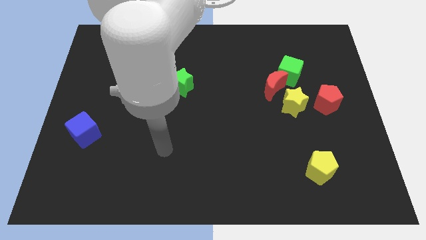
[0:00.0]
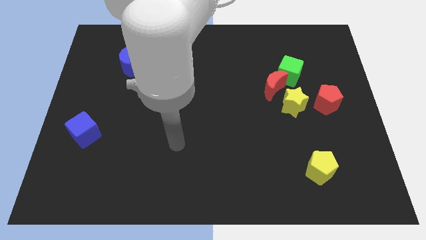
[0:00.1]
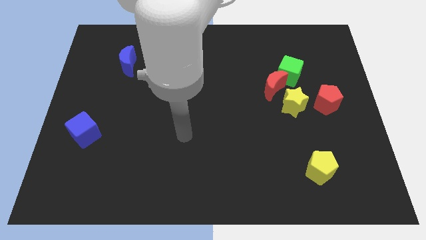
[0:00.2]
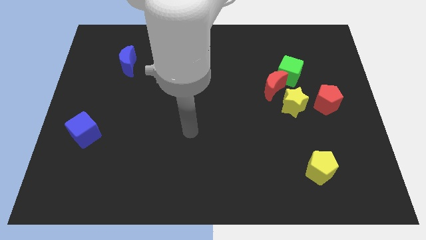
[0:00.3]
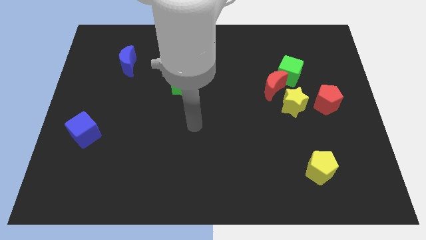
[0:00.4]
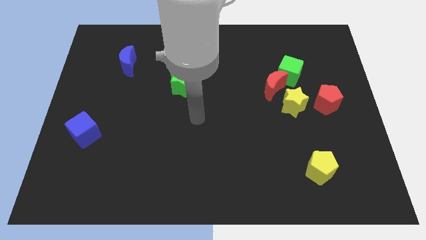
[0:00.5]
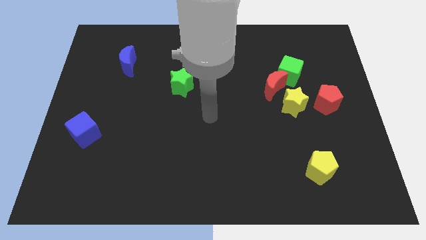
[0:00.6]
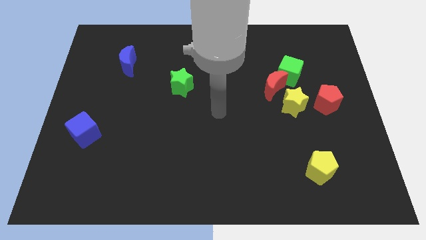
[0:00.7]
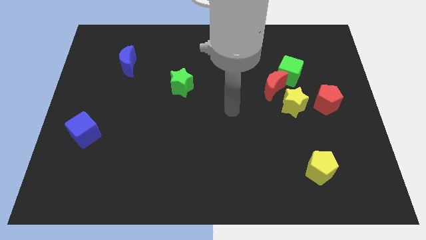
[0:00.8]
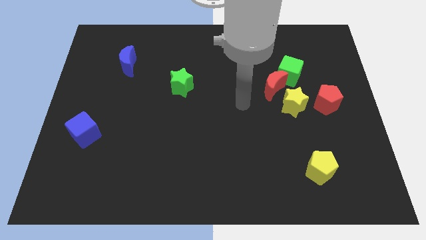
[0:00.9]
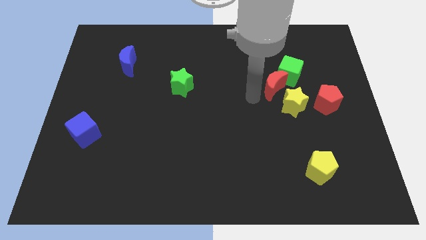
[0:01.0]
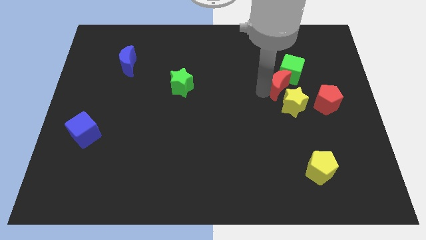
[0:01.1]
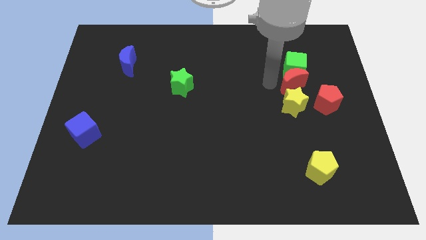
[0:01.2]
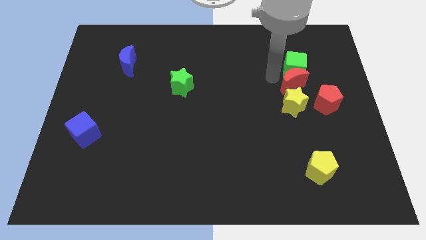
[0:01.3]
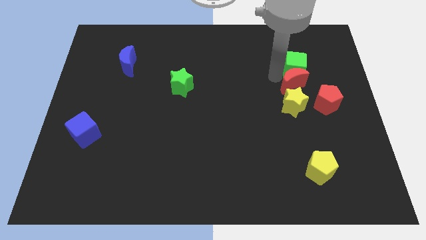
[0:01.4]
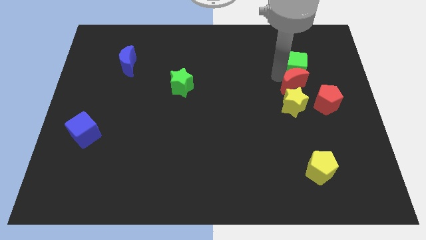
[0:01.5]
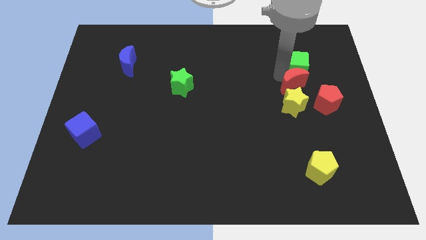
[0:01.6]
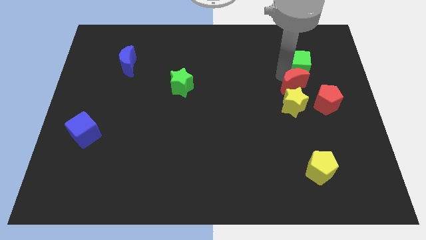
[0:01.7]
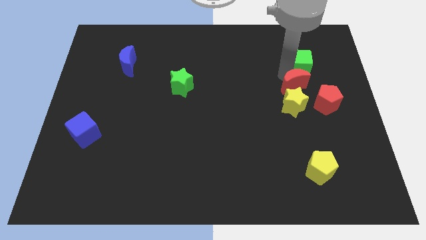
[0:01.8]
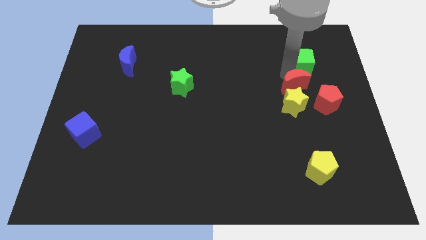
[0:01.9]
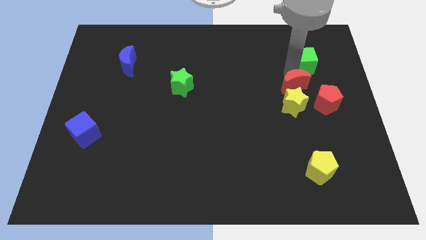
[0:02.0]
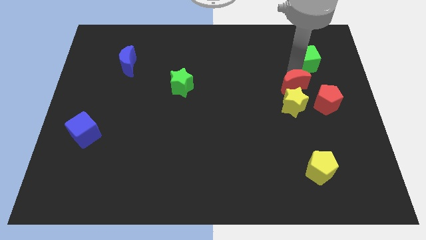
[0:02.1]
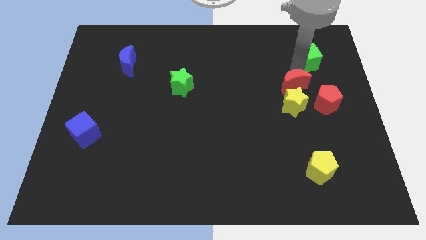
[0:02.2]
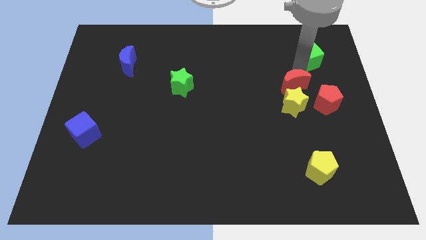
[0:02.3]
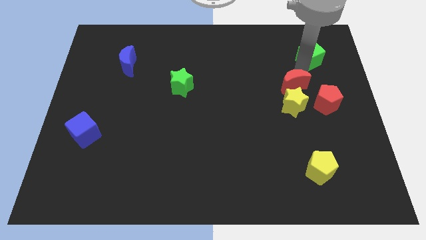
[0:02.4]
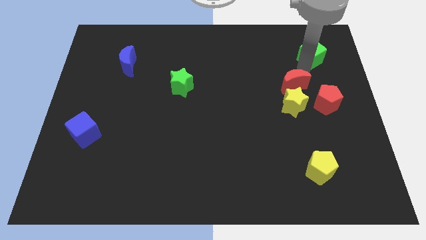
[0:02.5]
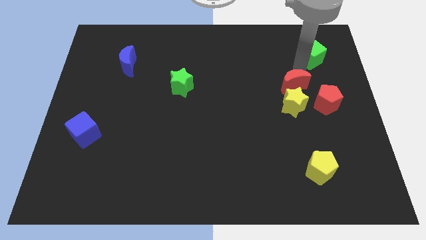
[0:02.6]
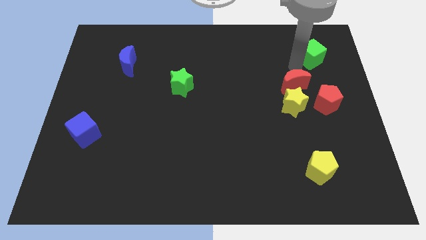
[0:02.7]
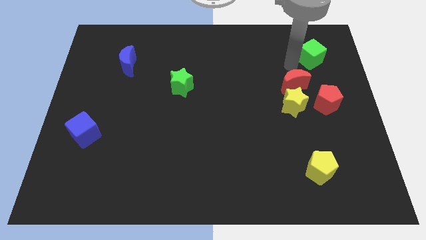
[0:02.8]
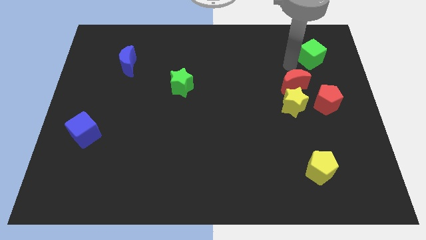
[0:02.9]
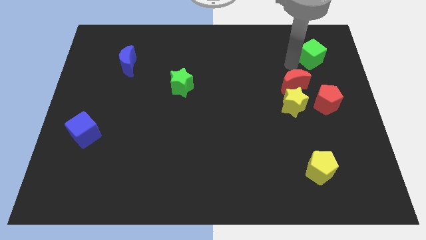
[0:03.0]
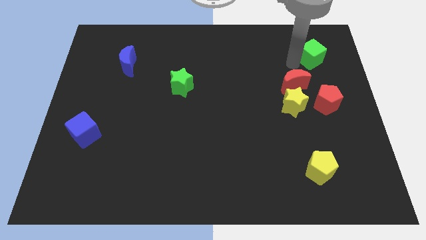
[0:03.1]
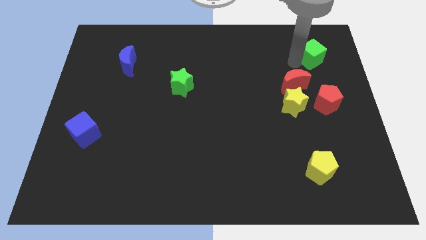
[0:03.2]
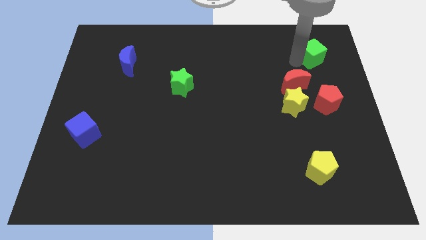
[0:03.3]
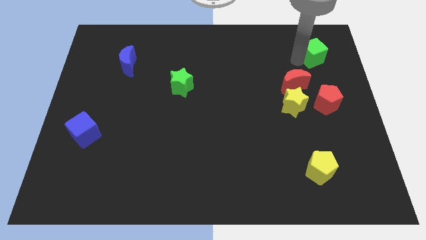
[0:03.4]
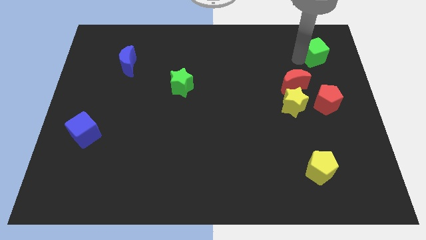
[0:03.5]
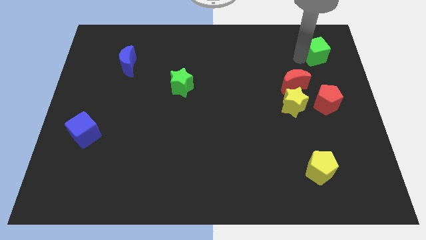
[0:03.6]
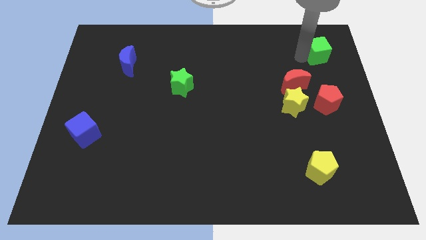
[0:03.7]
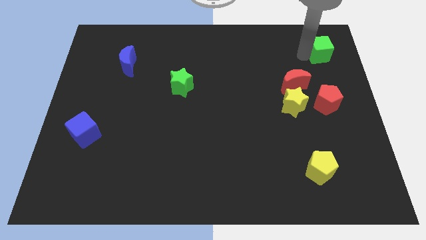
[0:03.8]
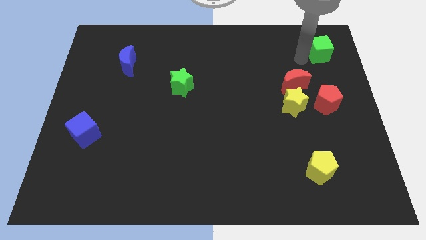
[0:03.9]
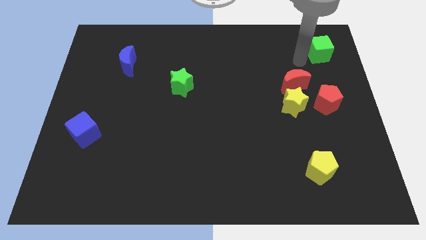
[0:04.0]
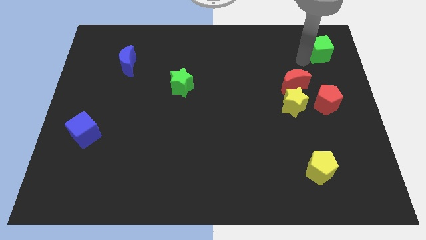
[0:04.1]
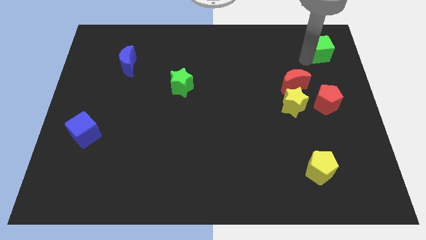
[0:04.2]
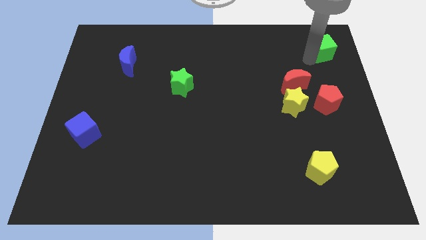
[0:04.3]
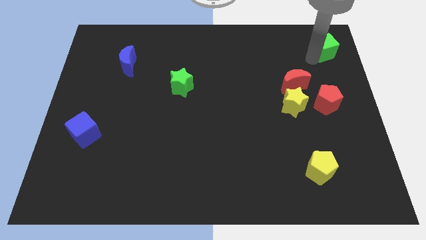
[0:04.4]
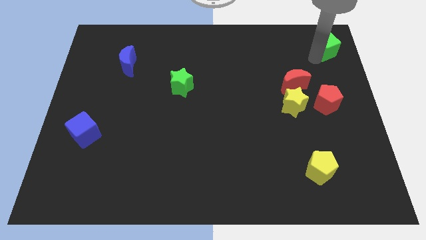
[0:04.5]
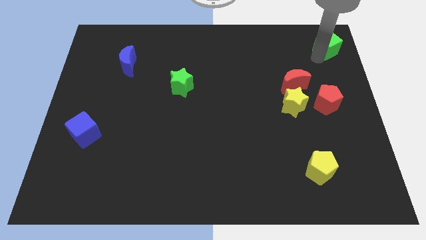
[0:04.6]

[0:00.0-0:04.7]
slide the green cube to the top right corner

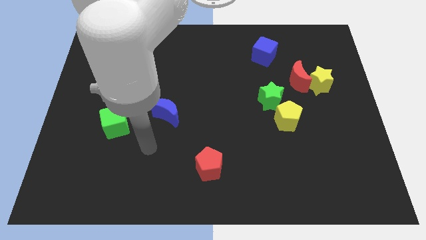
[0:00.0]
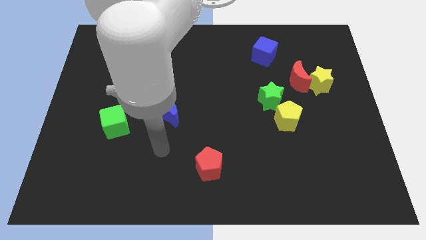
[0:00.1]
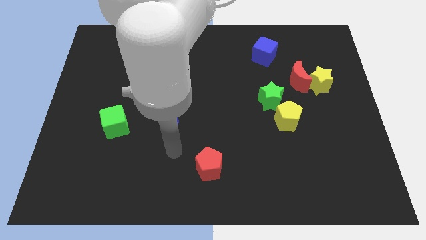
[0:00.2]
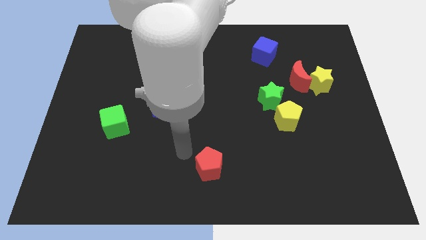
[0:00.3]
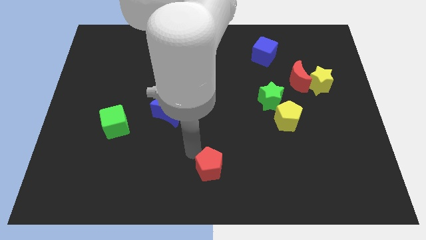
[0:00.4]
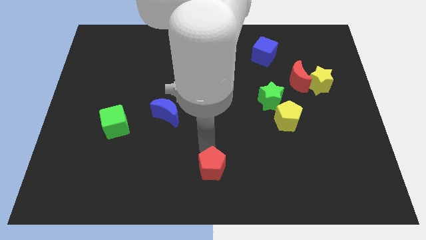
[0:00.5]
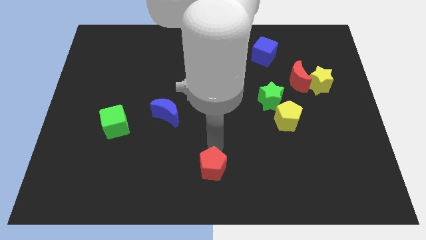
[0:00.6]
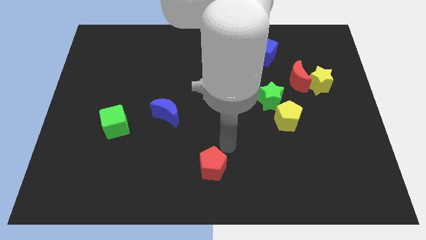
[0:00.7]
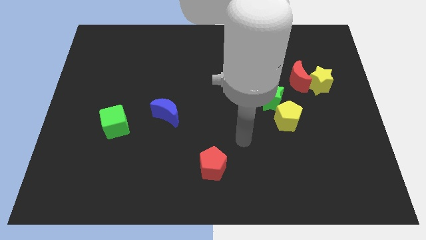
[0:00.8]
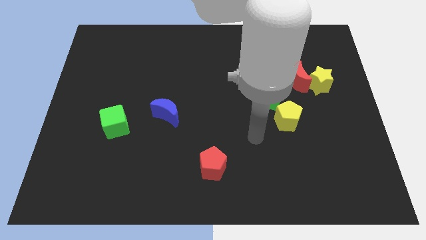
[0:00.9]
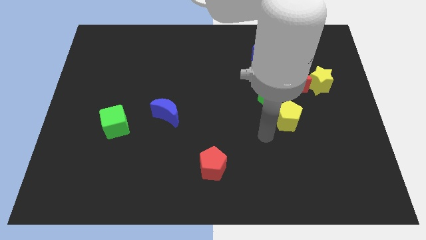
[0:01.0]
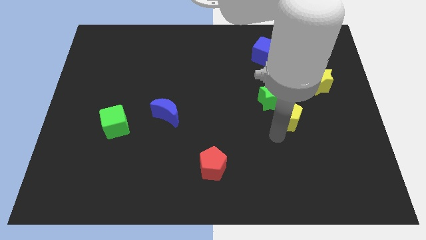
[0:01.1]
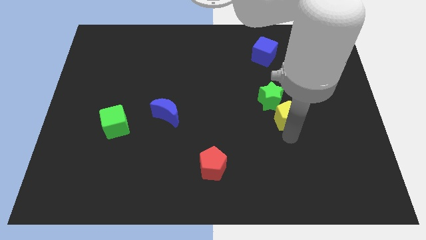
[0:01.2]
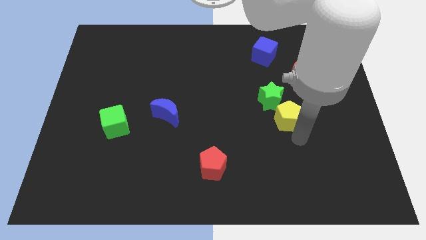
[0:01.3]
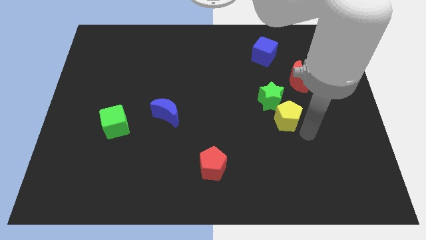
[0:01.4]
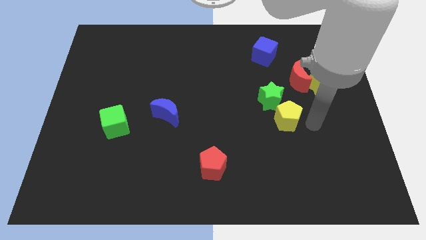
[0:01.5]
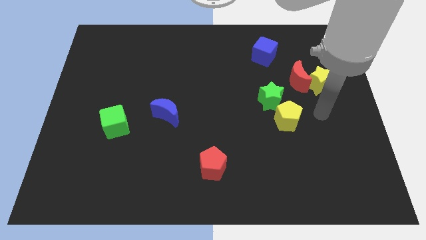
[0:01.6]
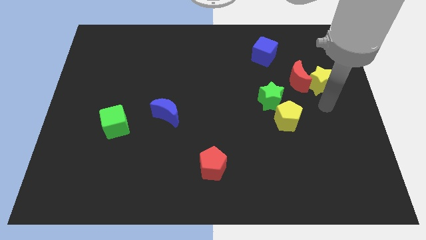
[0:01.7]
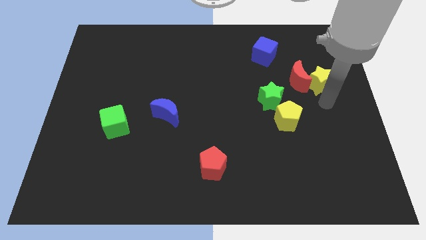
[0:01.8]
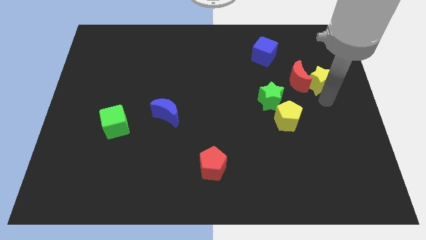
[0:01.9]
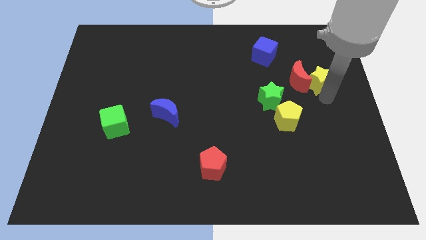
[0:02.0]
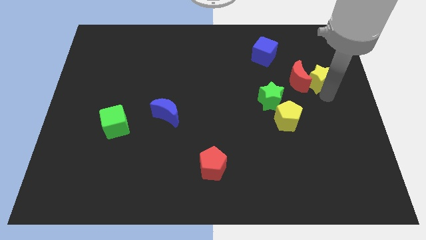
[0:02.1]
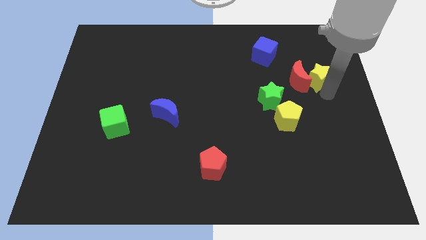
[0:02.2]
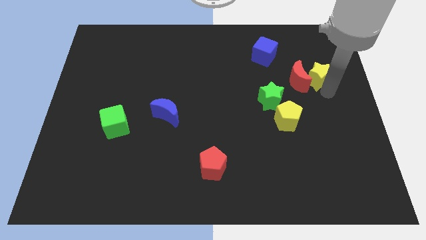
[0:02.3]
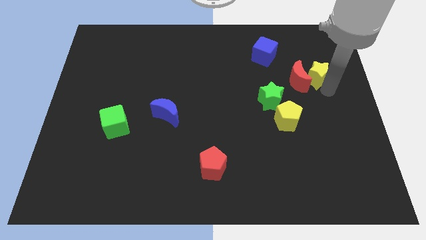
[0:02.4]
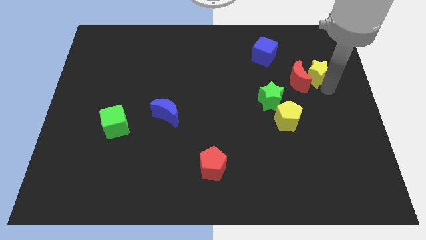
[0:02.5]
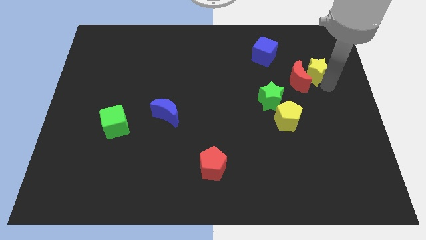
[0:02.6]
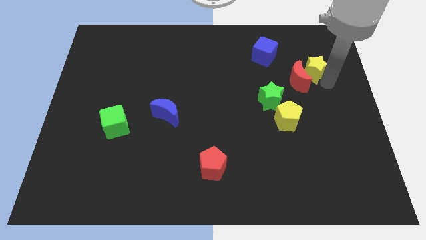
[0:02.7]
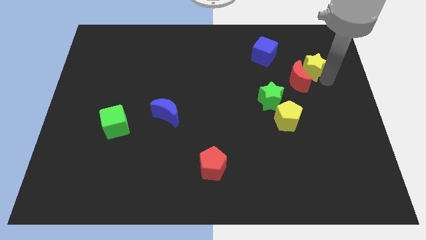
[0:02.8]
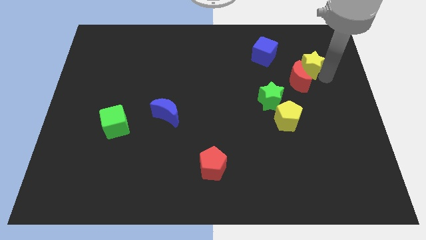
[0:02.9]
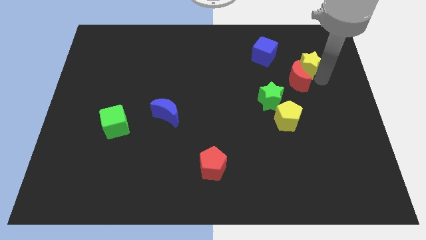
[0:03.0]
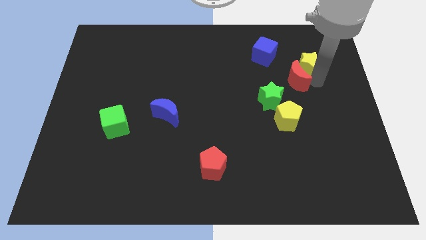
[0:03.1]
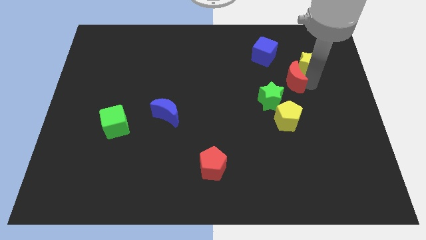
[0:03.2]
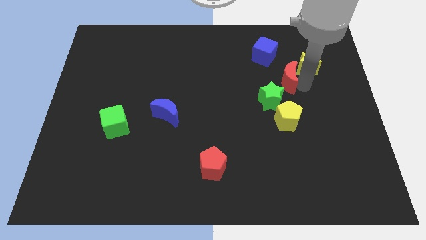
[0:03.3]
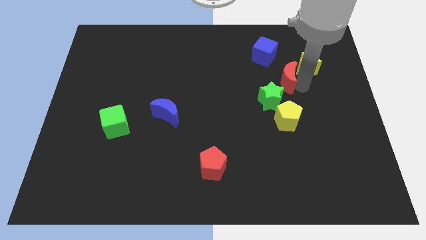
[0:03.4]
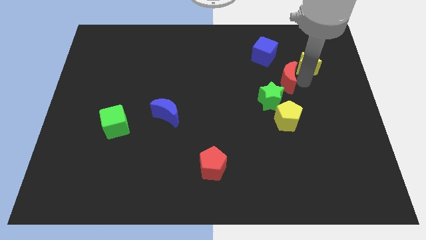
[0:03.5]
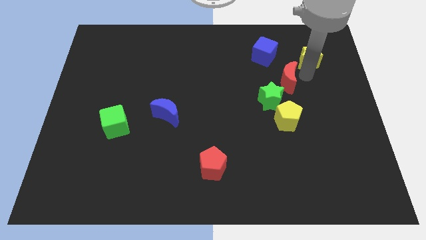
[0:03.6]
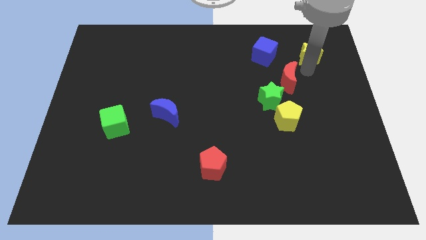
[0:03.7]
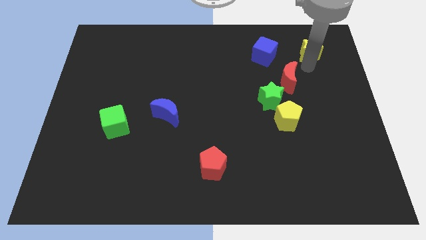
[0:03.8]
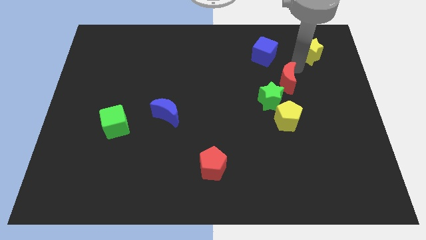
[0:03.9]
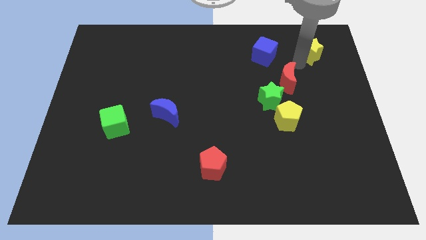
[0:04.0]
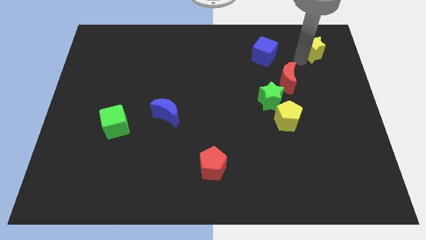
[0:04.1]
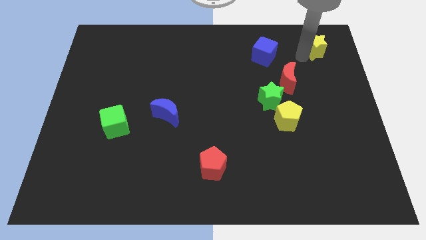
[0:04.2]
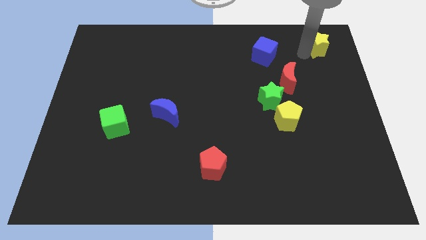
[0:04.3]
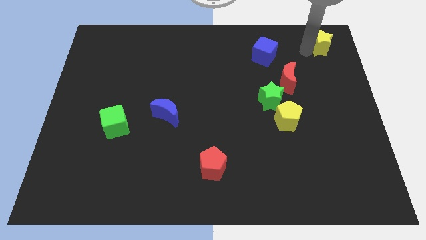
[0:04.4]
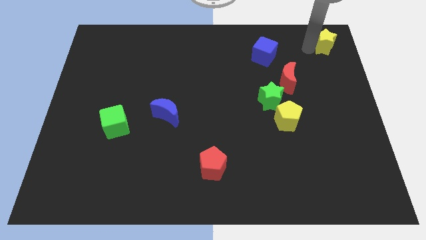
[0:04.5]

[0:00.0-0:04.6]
push the yellow star to the top right corner
